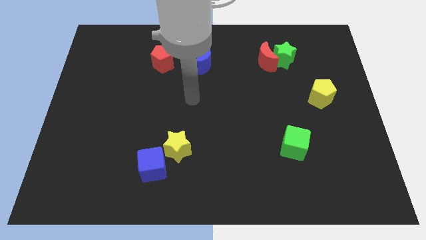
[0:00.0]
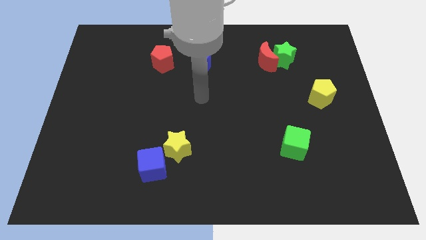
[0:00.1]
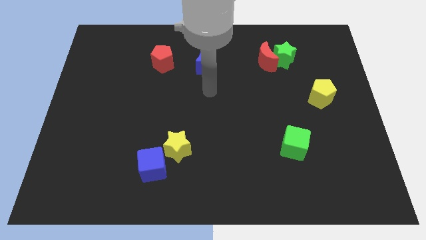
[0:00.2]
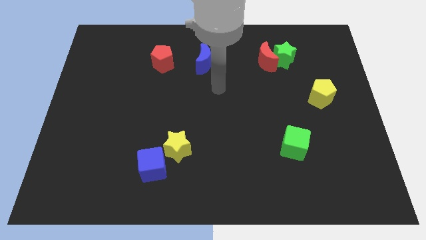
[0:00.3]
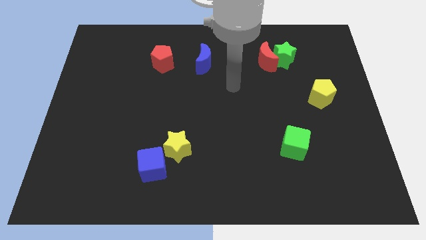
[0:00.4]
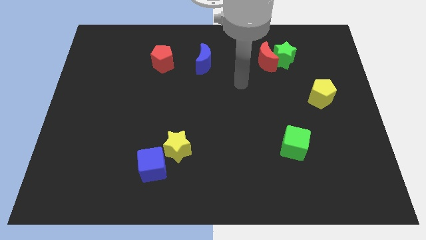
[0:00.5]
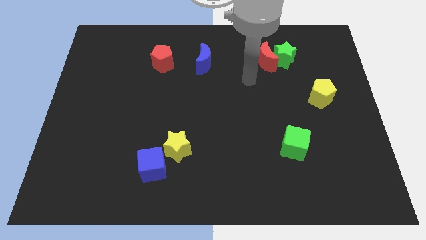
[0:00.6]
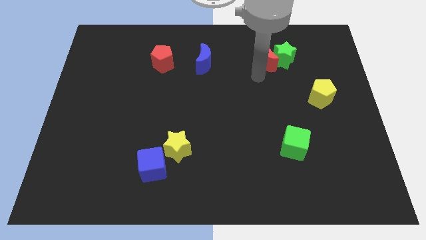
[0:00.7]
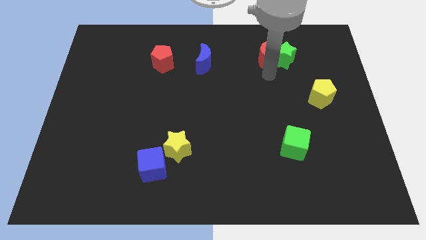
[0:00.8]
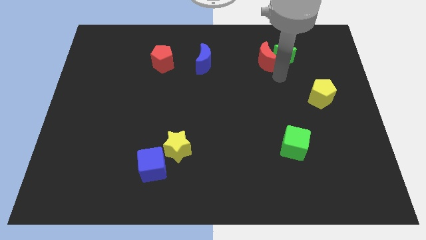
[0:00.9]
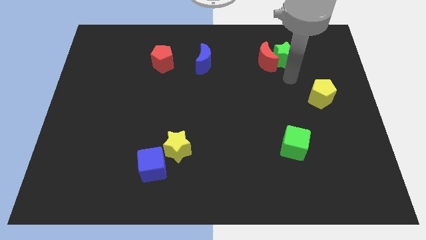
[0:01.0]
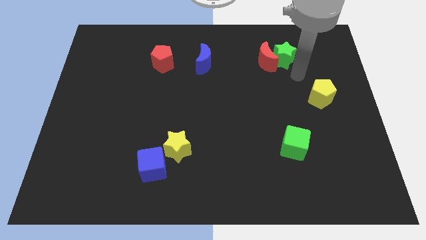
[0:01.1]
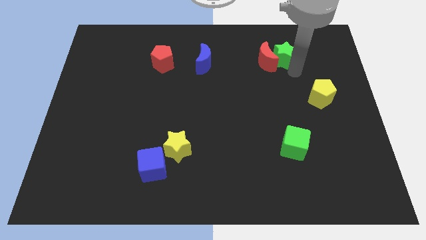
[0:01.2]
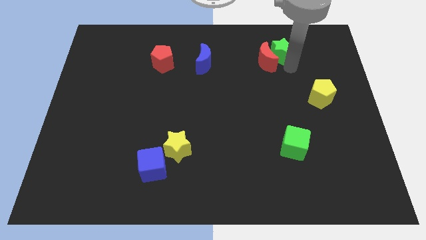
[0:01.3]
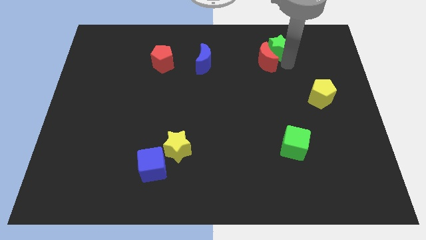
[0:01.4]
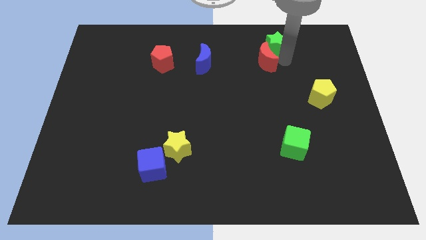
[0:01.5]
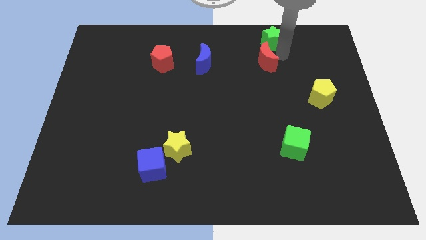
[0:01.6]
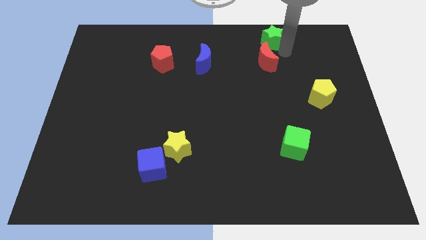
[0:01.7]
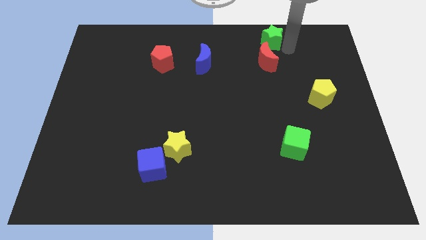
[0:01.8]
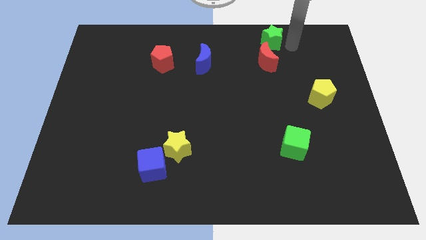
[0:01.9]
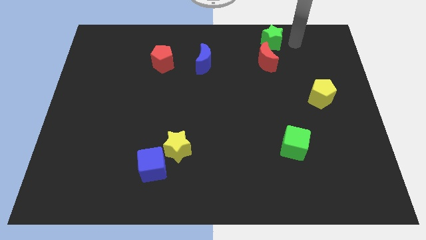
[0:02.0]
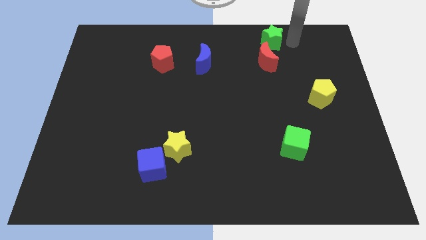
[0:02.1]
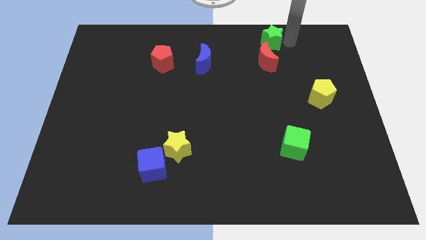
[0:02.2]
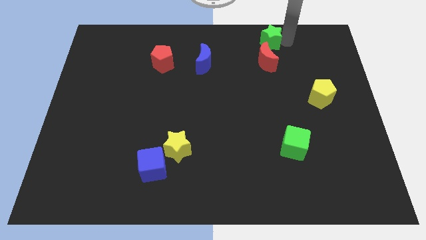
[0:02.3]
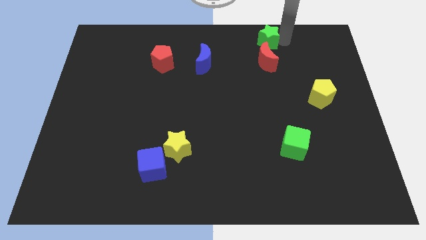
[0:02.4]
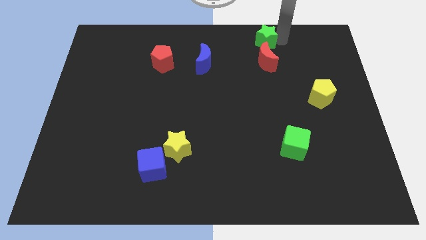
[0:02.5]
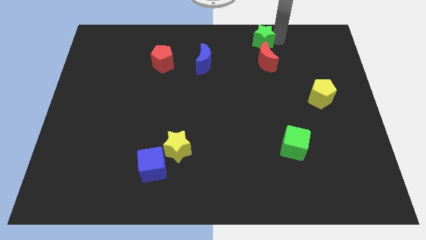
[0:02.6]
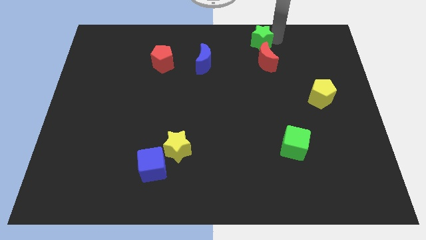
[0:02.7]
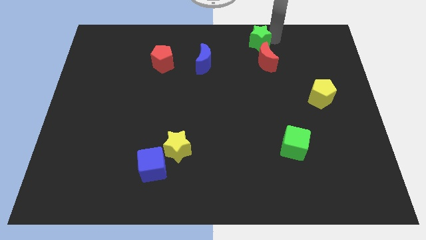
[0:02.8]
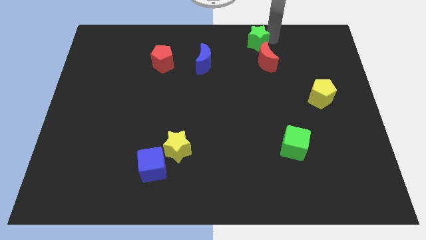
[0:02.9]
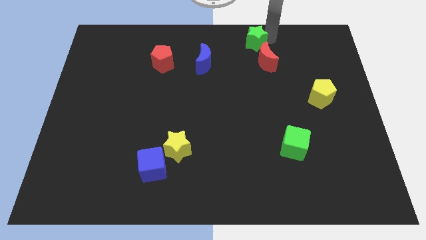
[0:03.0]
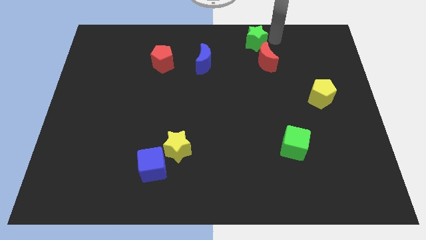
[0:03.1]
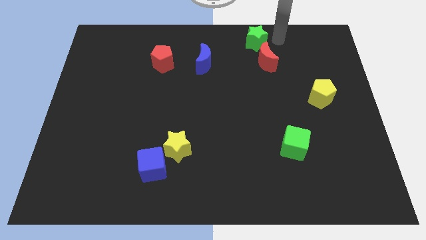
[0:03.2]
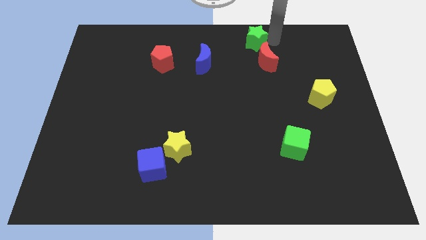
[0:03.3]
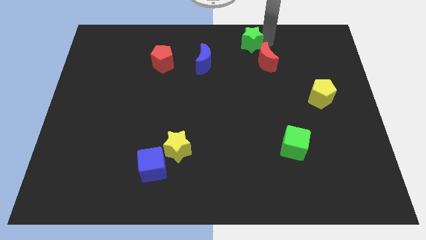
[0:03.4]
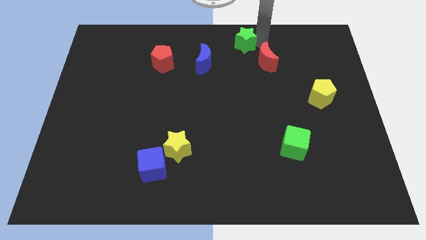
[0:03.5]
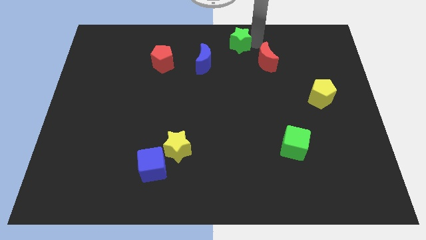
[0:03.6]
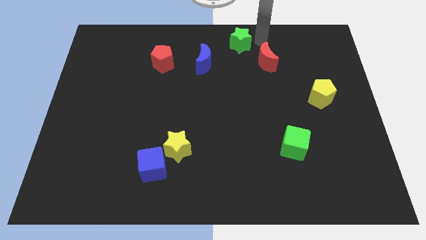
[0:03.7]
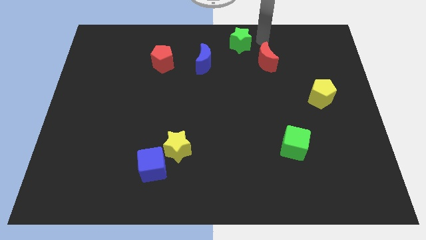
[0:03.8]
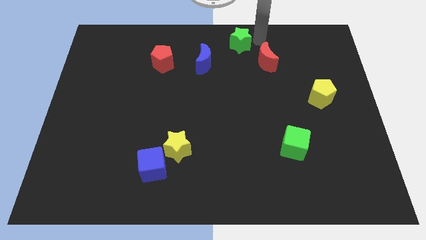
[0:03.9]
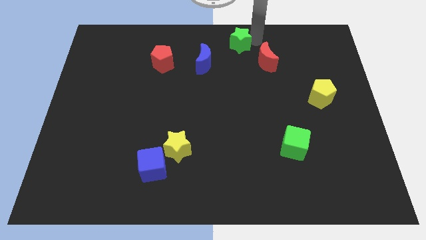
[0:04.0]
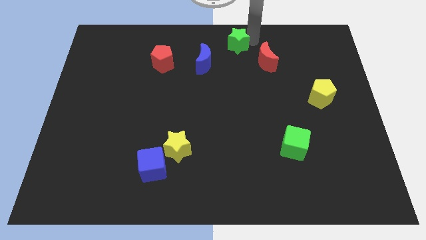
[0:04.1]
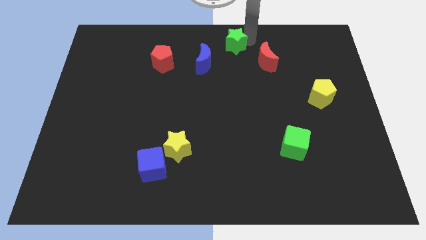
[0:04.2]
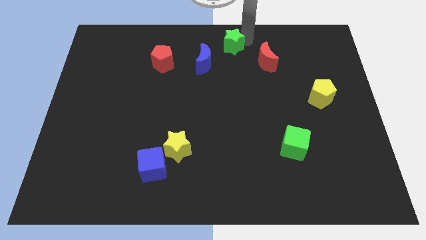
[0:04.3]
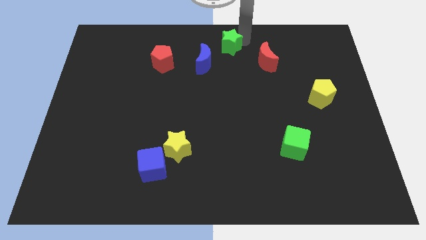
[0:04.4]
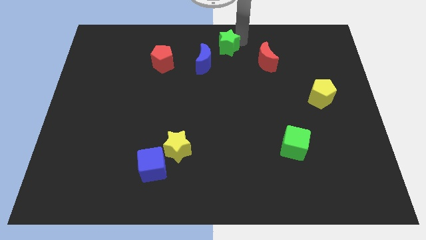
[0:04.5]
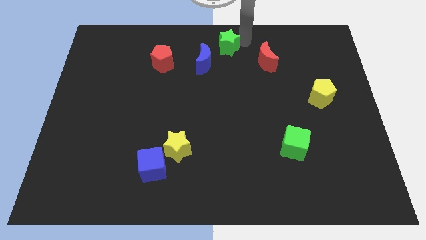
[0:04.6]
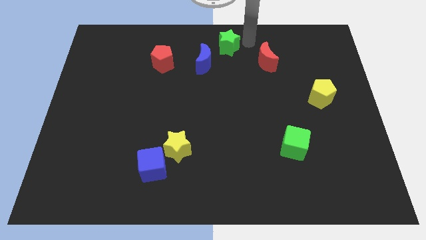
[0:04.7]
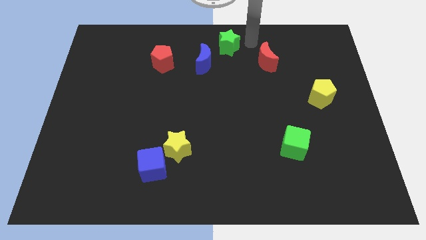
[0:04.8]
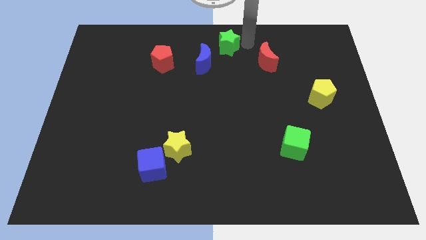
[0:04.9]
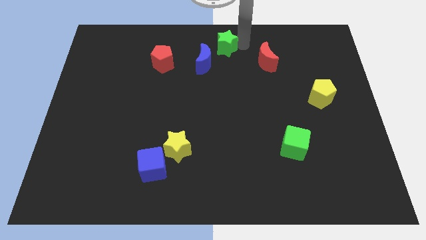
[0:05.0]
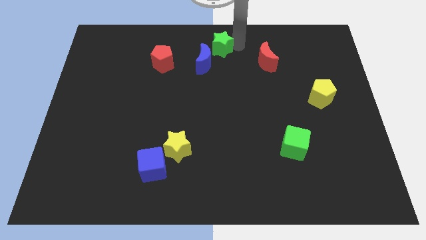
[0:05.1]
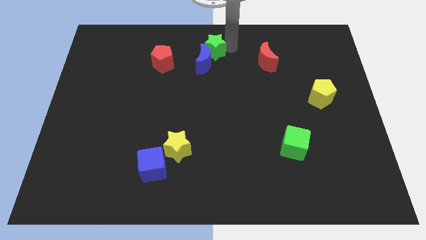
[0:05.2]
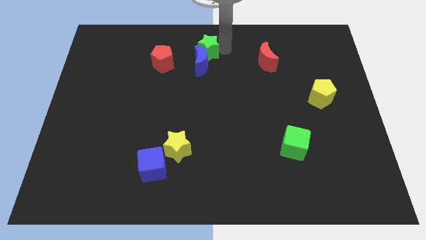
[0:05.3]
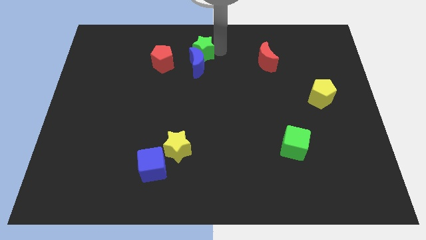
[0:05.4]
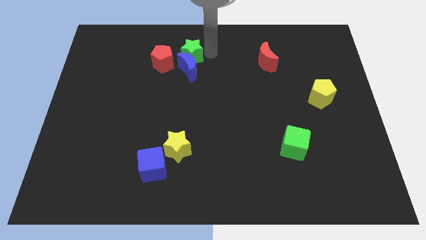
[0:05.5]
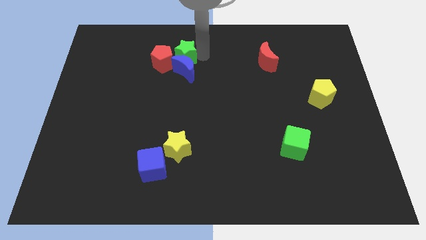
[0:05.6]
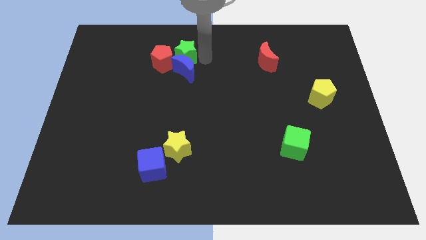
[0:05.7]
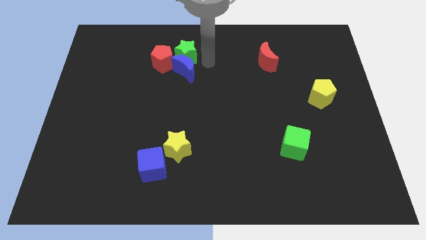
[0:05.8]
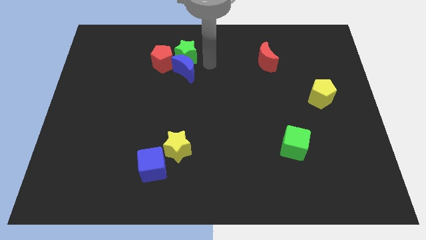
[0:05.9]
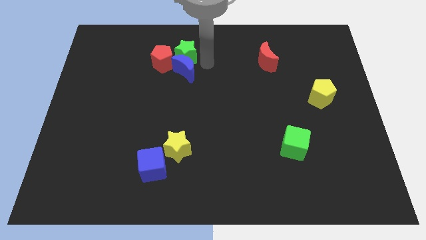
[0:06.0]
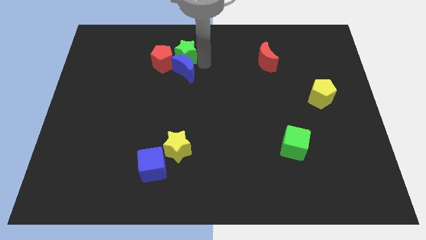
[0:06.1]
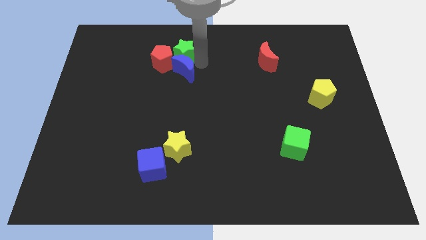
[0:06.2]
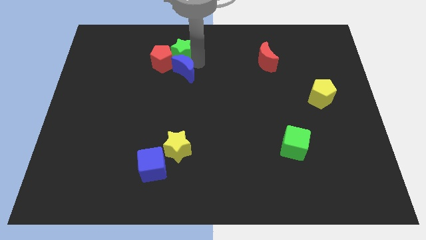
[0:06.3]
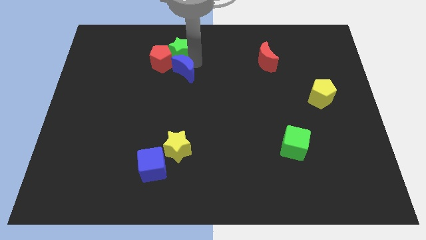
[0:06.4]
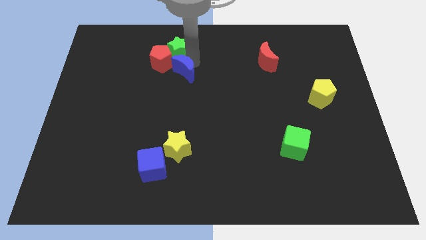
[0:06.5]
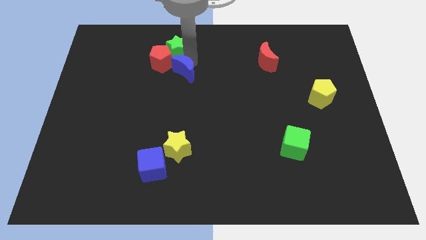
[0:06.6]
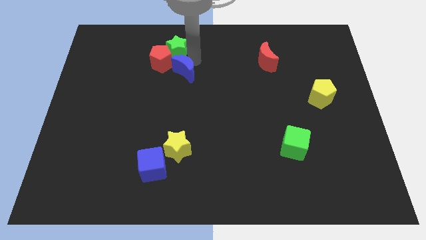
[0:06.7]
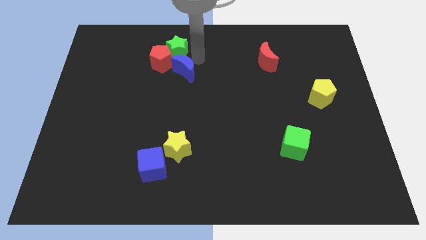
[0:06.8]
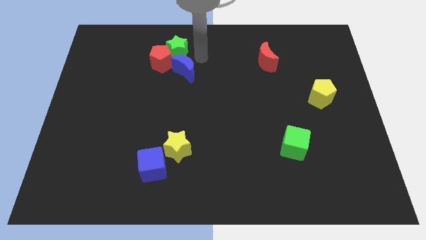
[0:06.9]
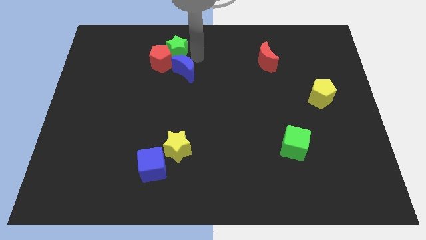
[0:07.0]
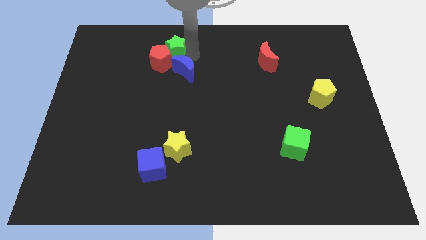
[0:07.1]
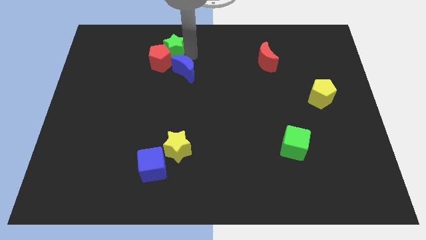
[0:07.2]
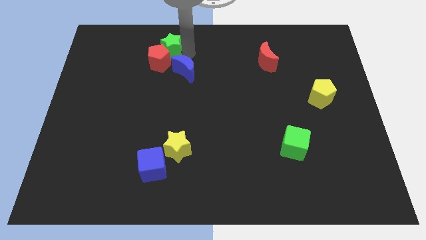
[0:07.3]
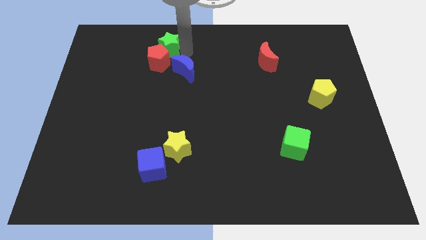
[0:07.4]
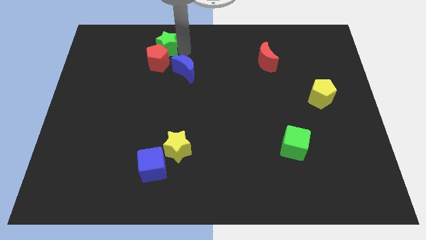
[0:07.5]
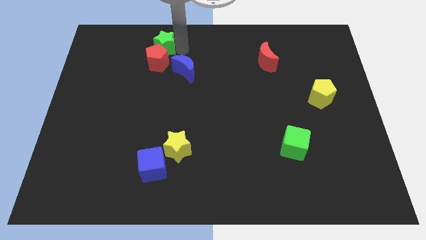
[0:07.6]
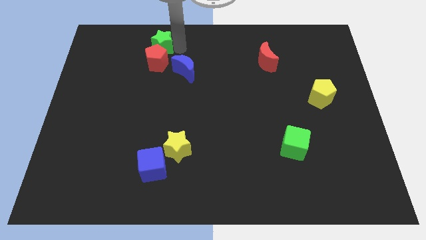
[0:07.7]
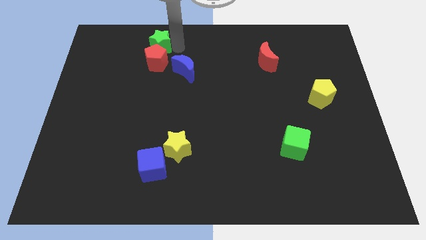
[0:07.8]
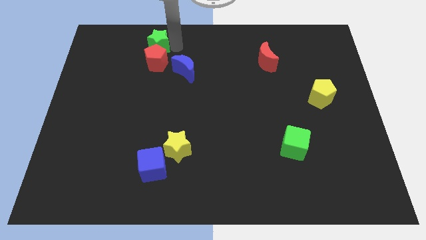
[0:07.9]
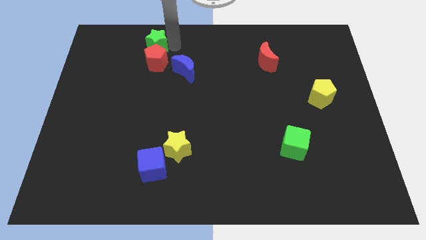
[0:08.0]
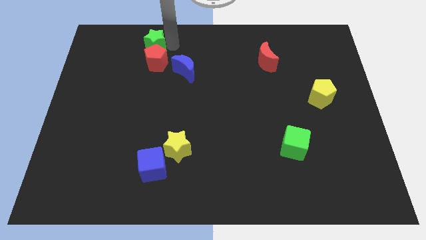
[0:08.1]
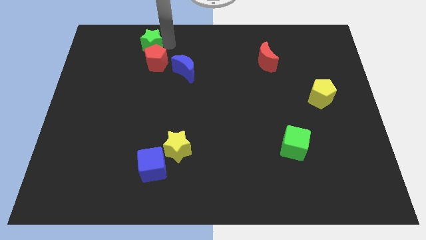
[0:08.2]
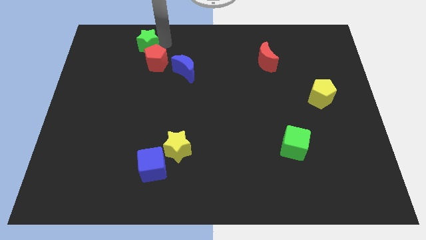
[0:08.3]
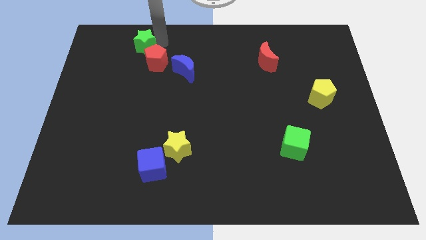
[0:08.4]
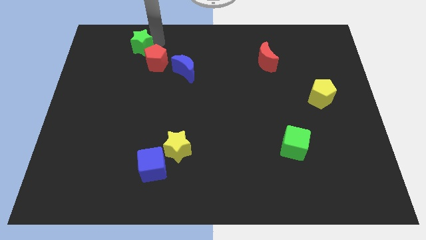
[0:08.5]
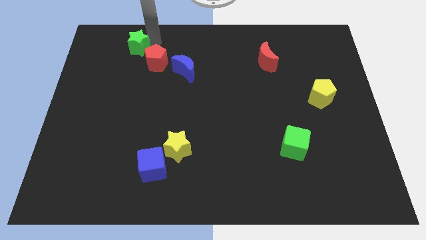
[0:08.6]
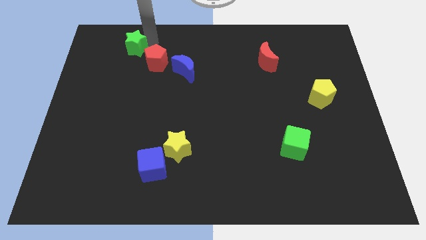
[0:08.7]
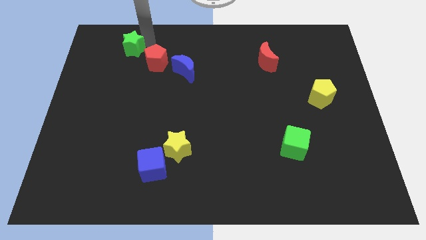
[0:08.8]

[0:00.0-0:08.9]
slide the green star left of the red pentagon
